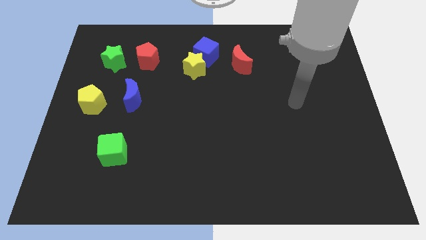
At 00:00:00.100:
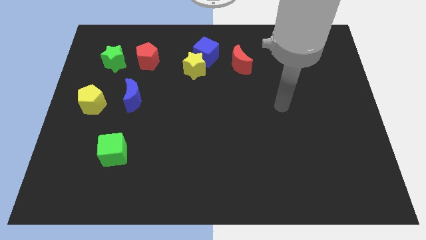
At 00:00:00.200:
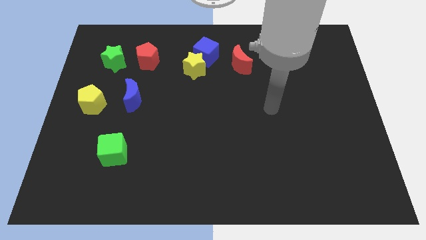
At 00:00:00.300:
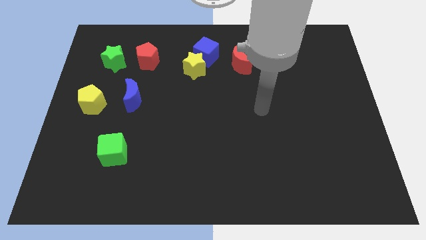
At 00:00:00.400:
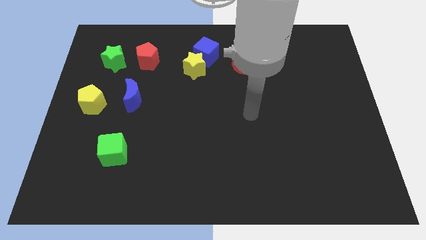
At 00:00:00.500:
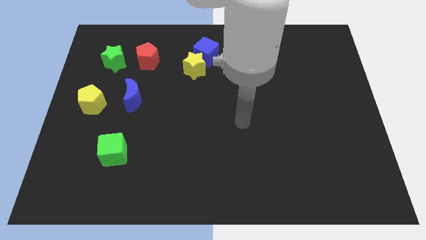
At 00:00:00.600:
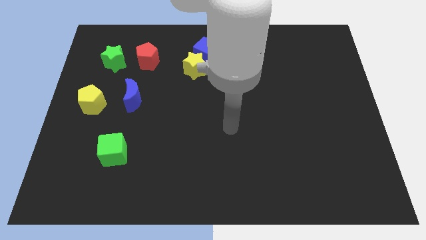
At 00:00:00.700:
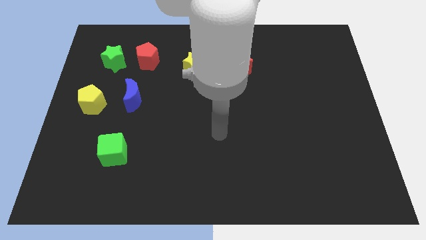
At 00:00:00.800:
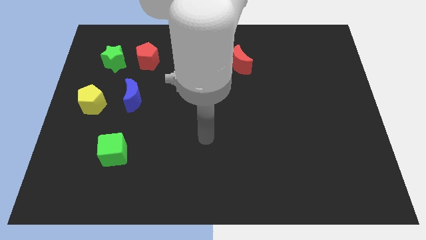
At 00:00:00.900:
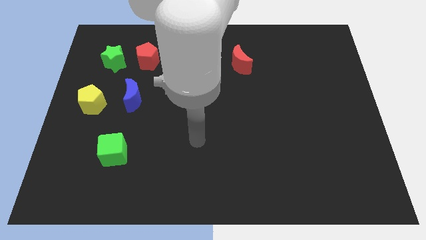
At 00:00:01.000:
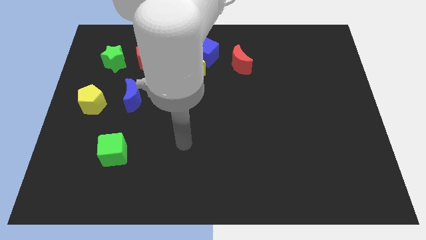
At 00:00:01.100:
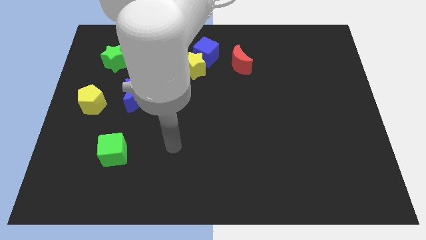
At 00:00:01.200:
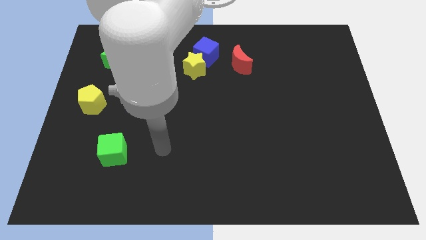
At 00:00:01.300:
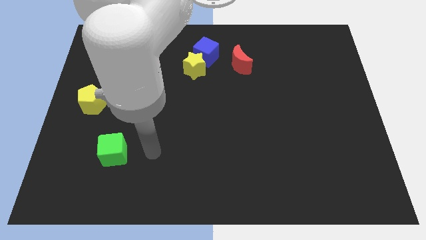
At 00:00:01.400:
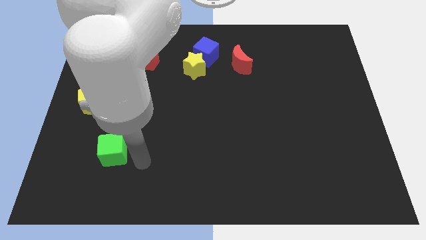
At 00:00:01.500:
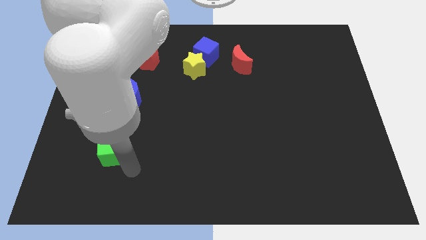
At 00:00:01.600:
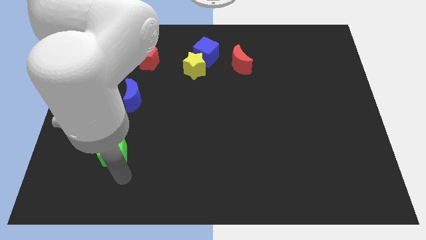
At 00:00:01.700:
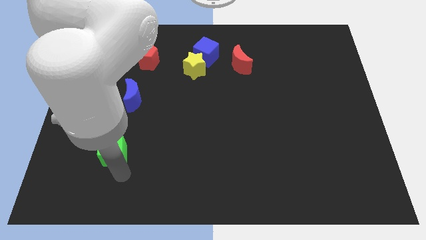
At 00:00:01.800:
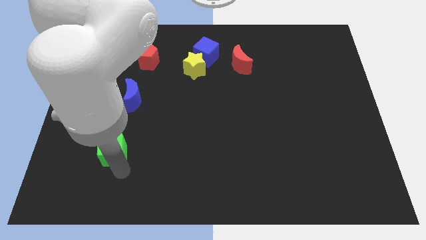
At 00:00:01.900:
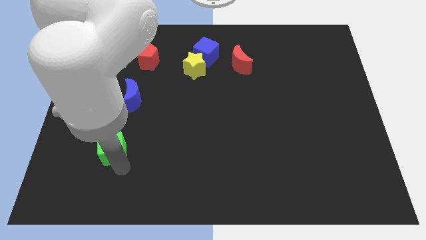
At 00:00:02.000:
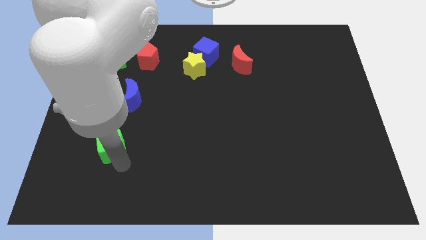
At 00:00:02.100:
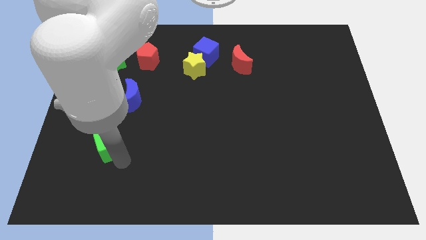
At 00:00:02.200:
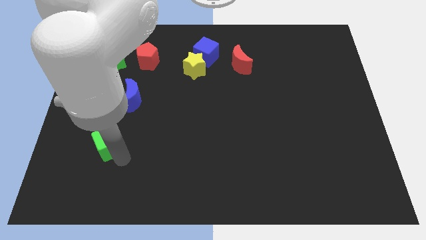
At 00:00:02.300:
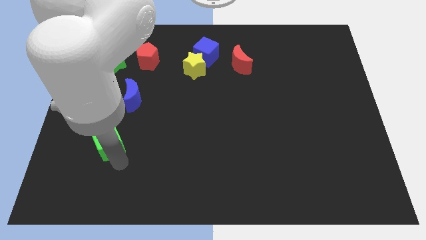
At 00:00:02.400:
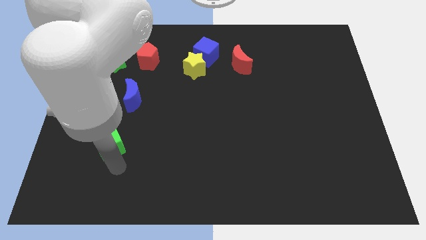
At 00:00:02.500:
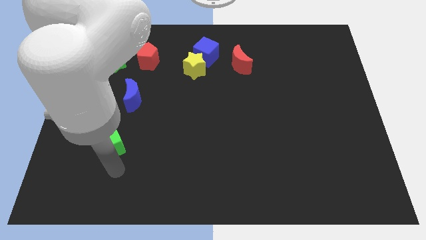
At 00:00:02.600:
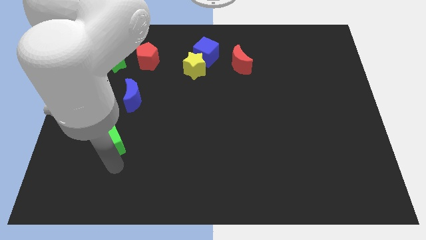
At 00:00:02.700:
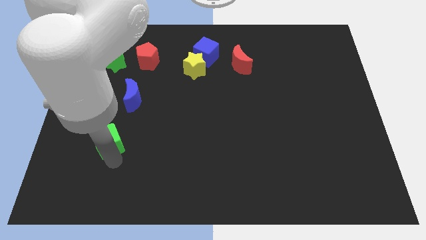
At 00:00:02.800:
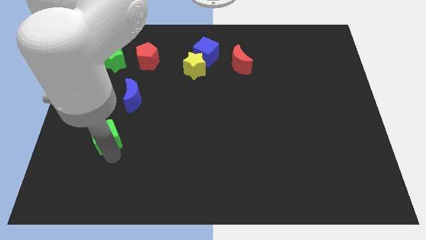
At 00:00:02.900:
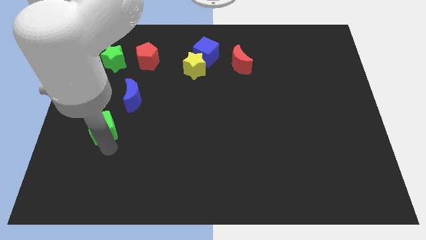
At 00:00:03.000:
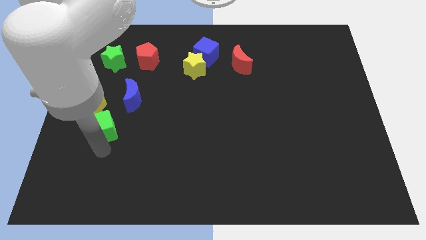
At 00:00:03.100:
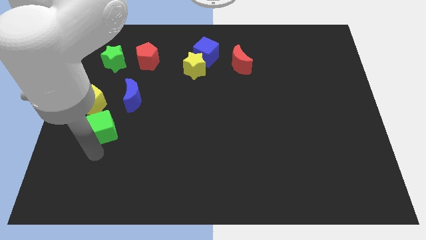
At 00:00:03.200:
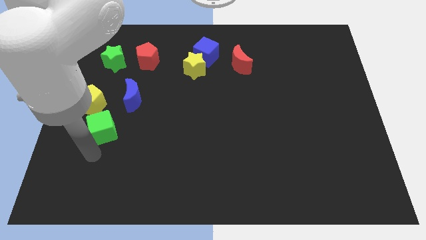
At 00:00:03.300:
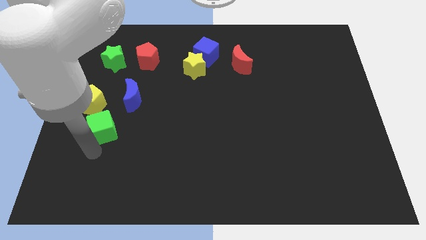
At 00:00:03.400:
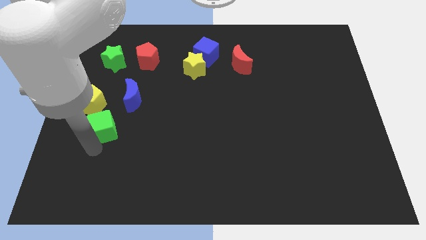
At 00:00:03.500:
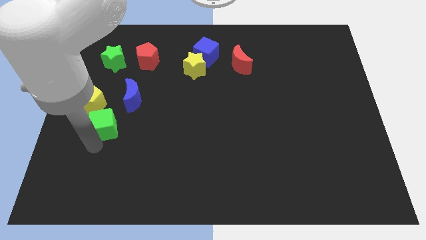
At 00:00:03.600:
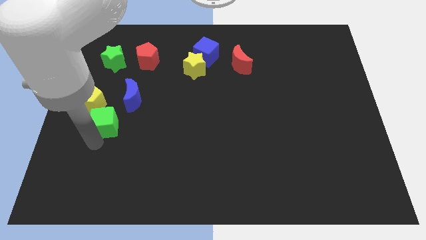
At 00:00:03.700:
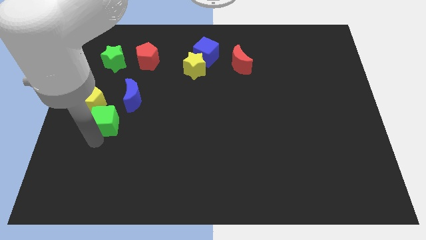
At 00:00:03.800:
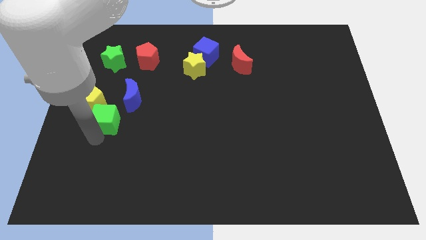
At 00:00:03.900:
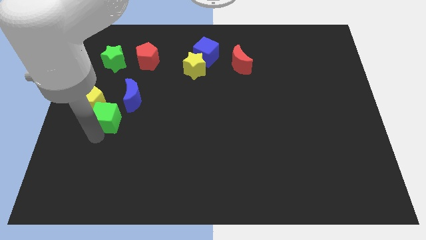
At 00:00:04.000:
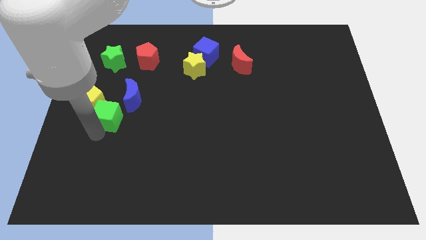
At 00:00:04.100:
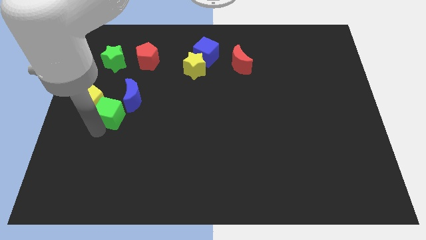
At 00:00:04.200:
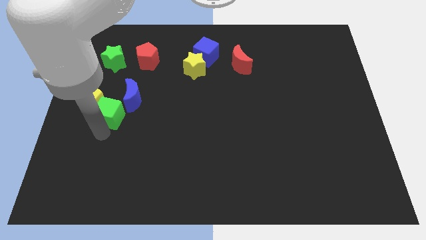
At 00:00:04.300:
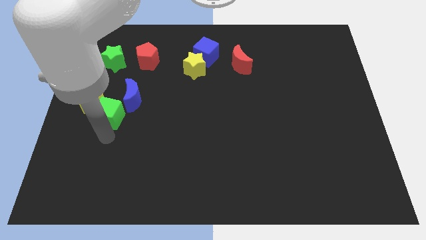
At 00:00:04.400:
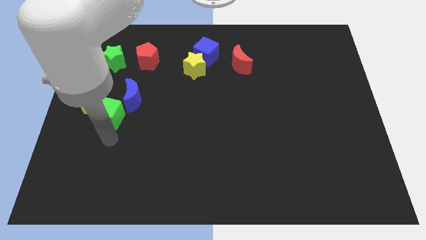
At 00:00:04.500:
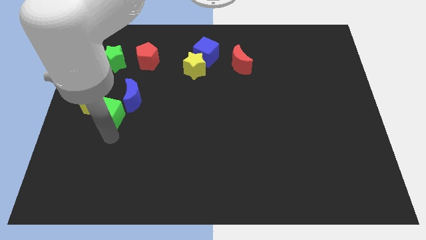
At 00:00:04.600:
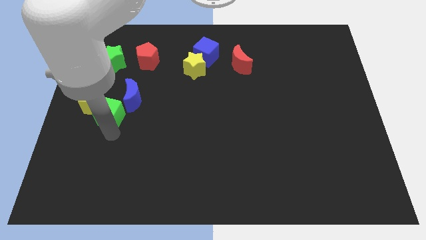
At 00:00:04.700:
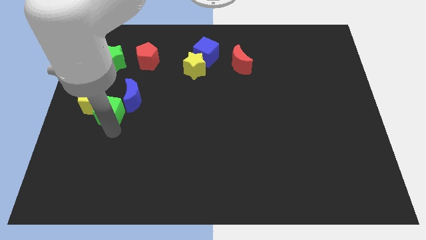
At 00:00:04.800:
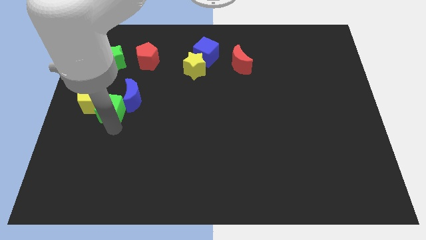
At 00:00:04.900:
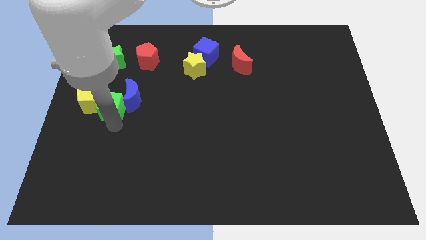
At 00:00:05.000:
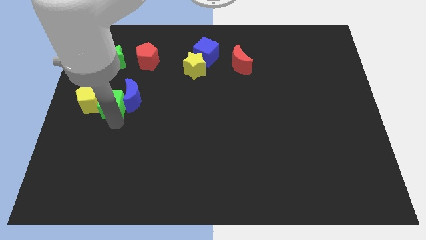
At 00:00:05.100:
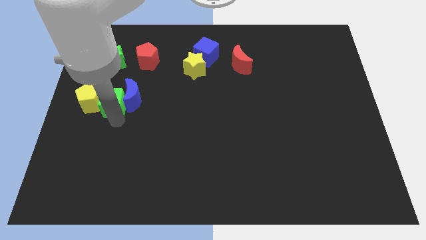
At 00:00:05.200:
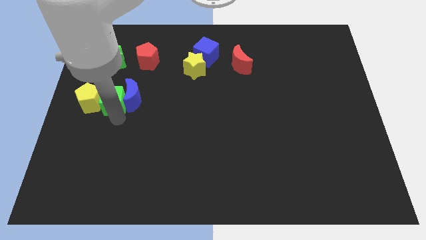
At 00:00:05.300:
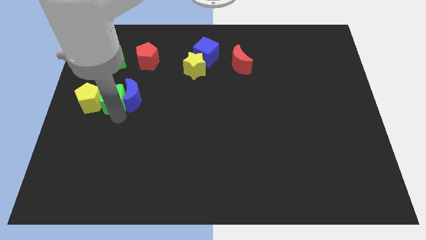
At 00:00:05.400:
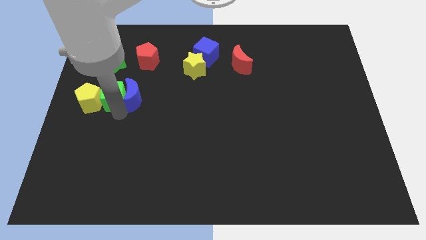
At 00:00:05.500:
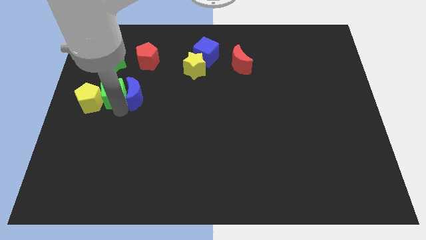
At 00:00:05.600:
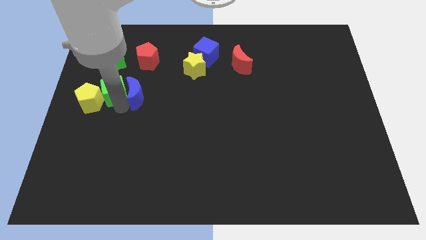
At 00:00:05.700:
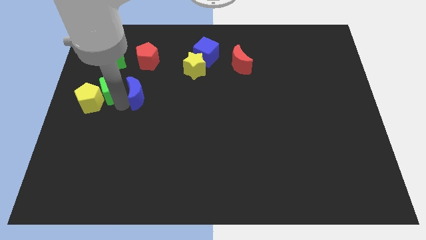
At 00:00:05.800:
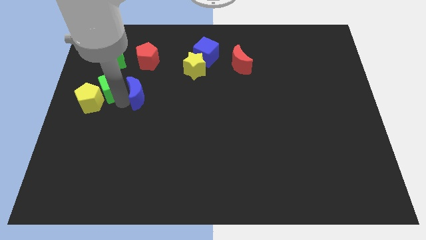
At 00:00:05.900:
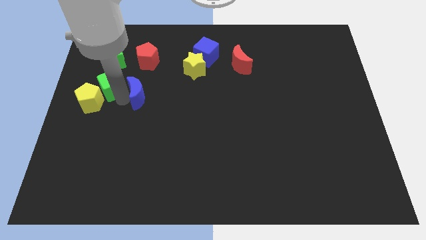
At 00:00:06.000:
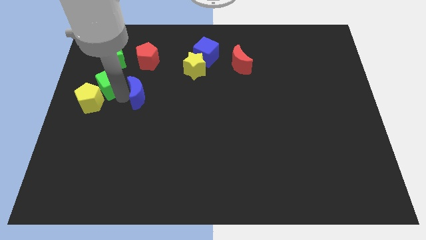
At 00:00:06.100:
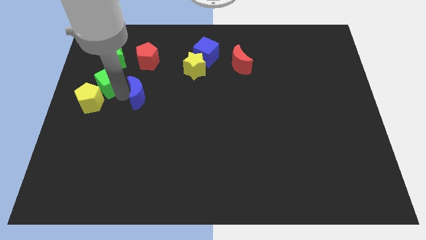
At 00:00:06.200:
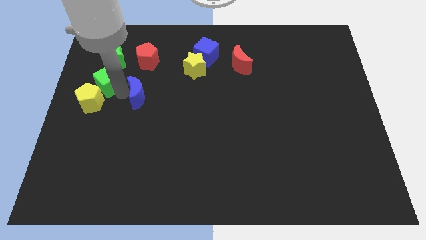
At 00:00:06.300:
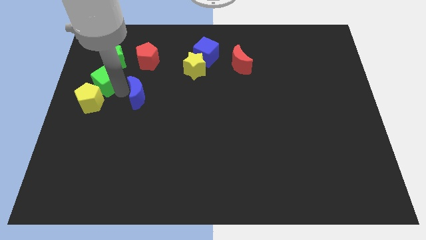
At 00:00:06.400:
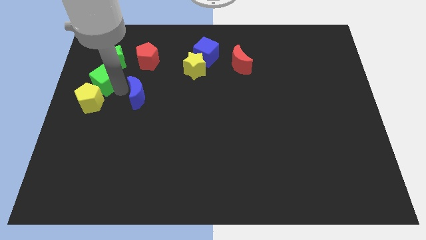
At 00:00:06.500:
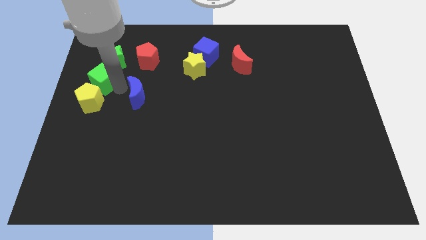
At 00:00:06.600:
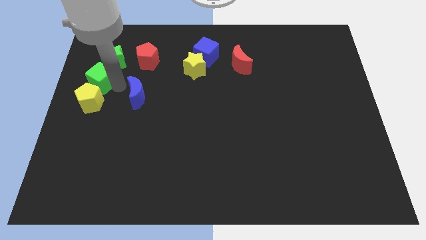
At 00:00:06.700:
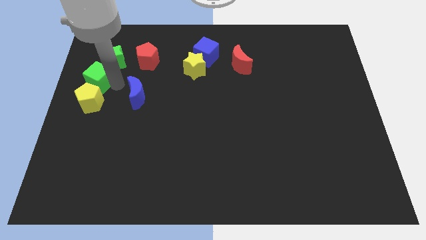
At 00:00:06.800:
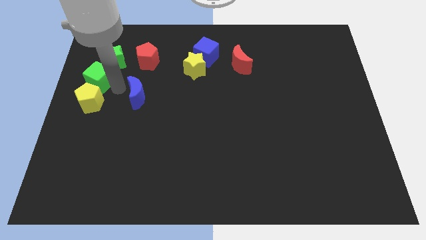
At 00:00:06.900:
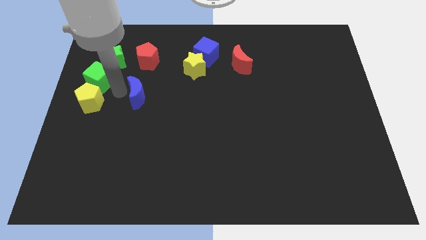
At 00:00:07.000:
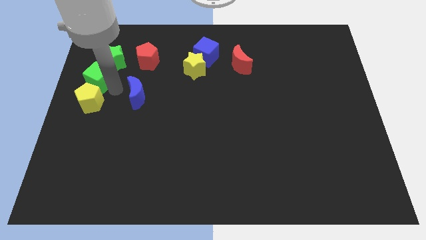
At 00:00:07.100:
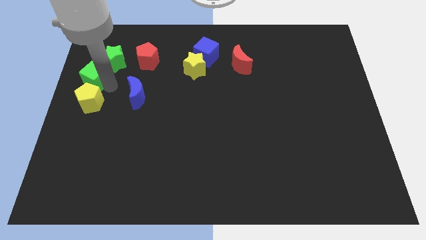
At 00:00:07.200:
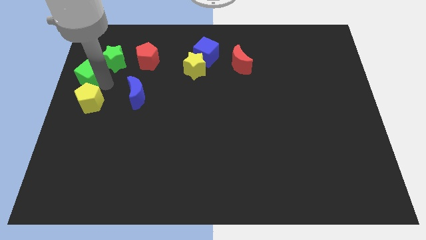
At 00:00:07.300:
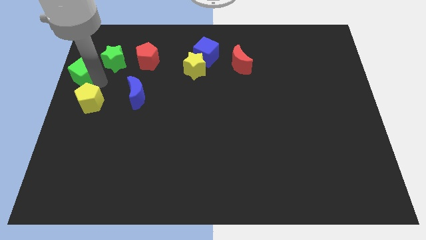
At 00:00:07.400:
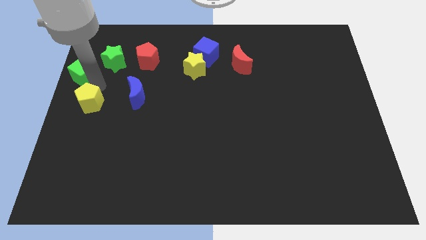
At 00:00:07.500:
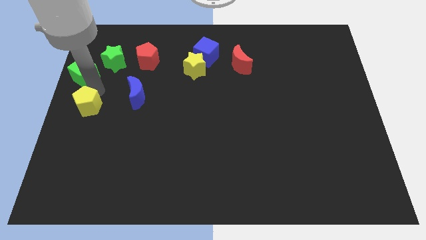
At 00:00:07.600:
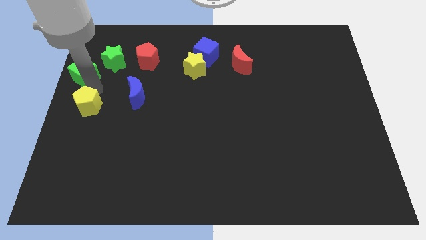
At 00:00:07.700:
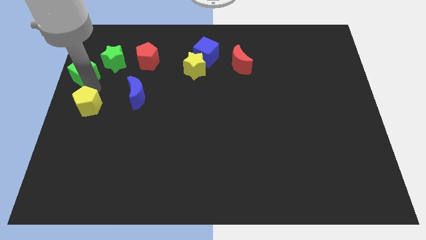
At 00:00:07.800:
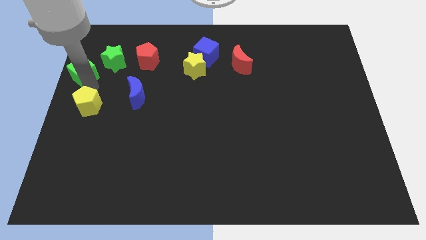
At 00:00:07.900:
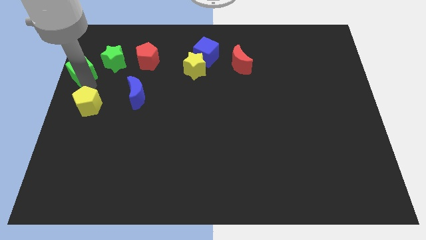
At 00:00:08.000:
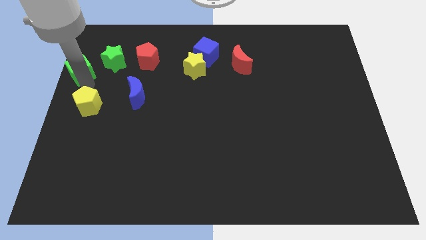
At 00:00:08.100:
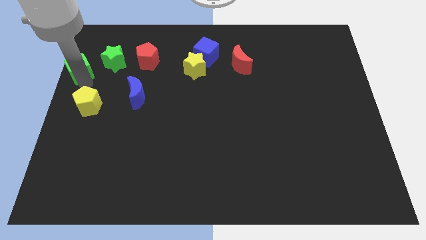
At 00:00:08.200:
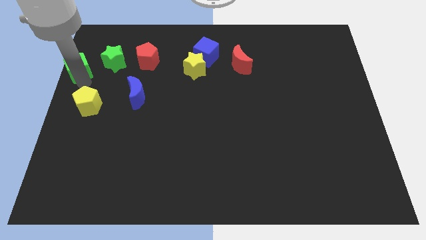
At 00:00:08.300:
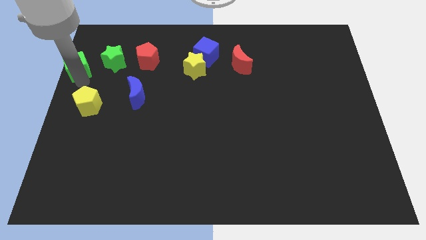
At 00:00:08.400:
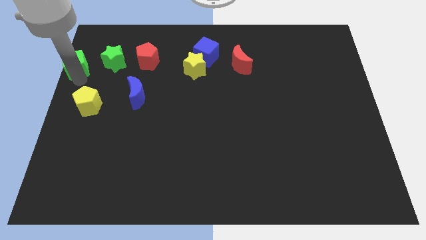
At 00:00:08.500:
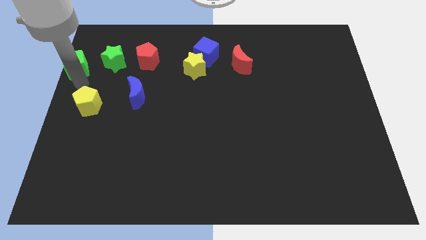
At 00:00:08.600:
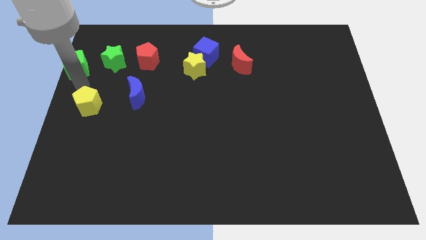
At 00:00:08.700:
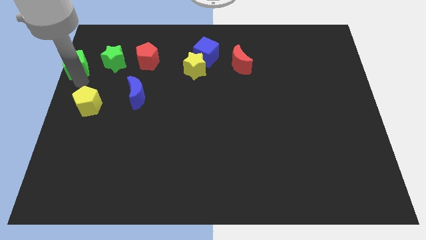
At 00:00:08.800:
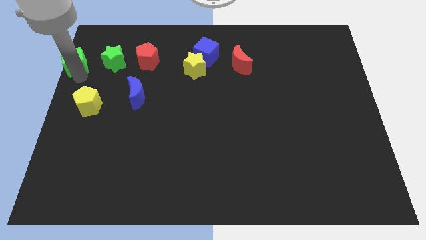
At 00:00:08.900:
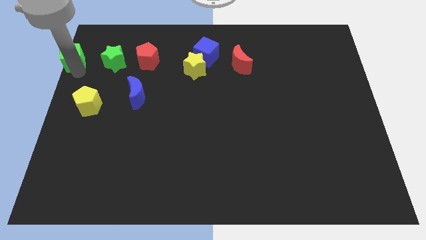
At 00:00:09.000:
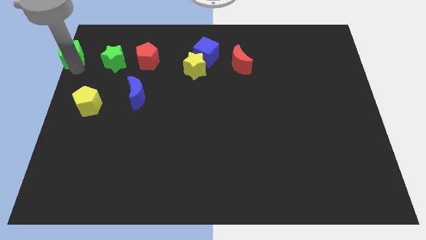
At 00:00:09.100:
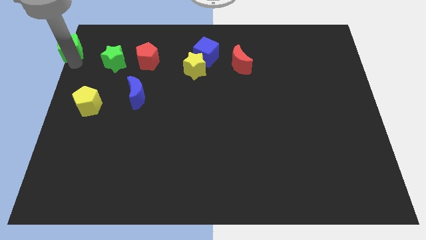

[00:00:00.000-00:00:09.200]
slide the green cube to the top left
